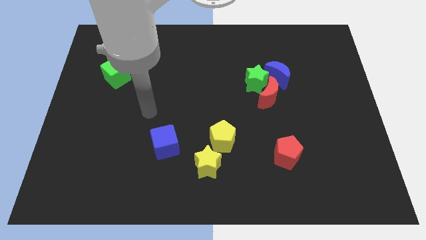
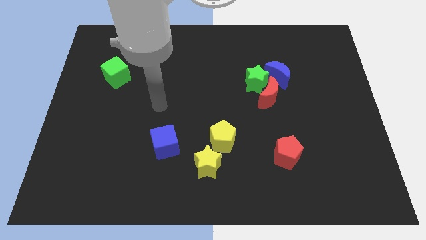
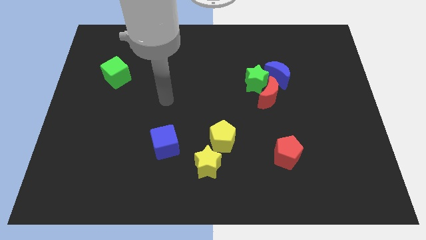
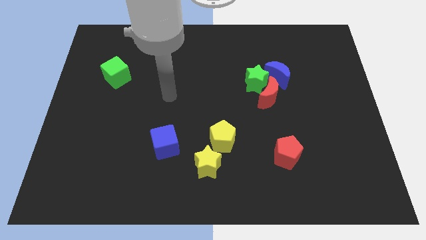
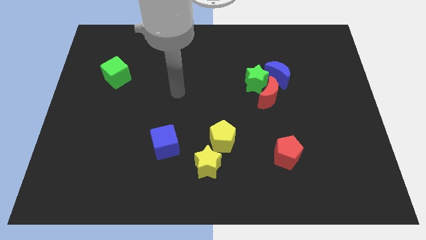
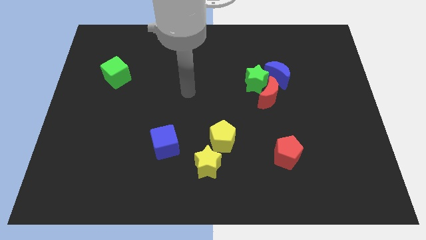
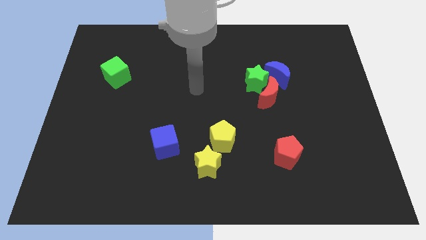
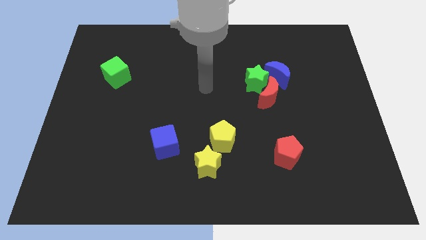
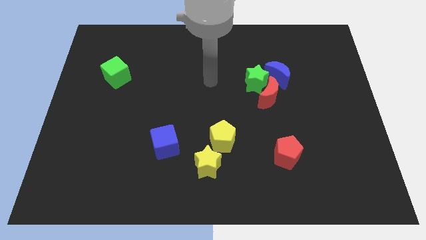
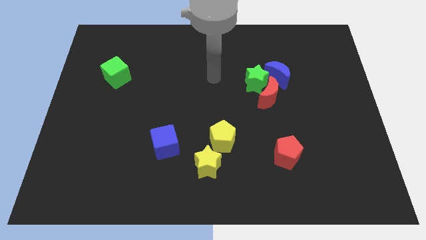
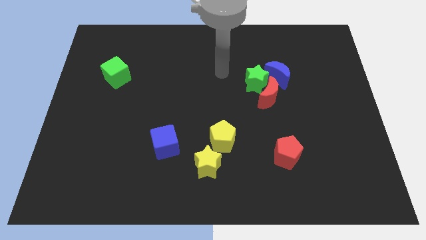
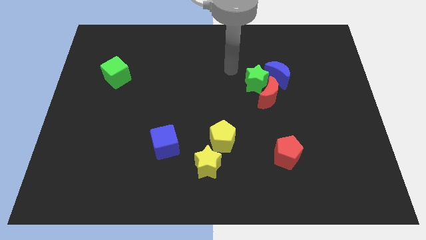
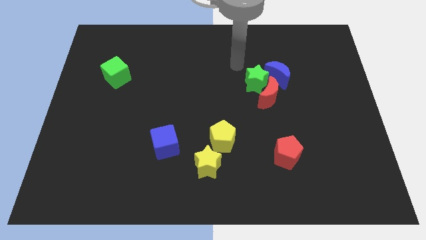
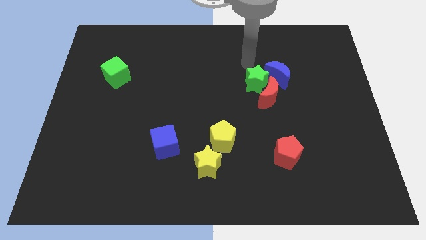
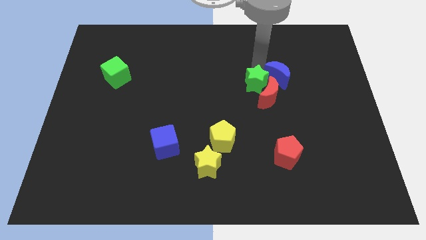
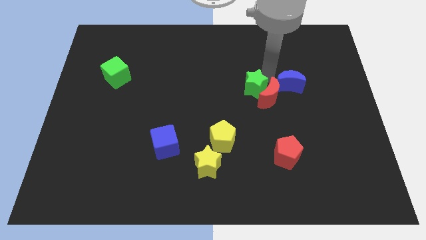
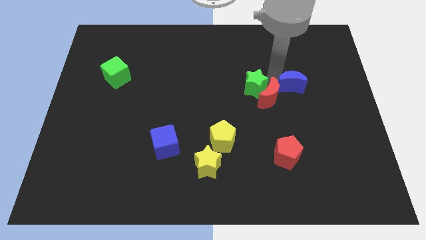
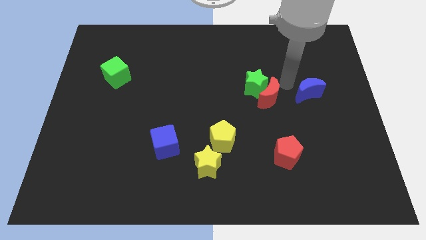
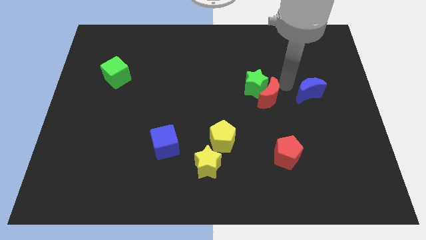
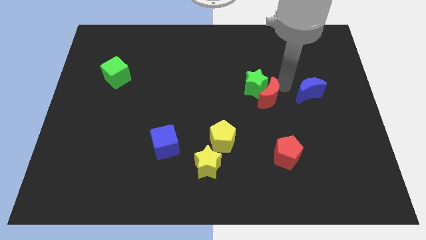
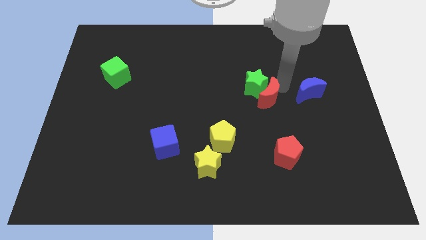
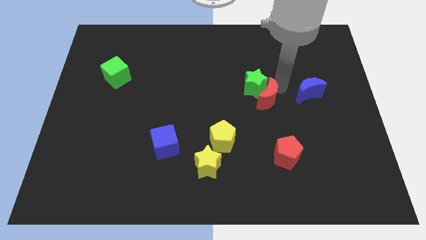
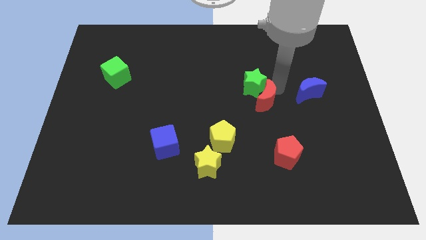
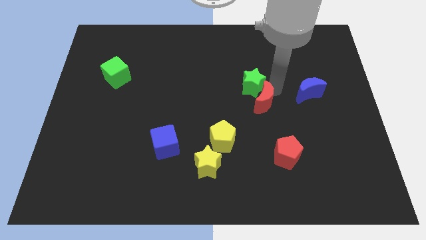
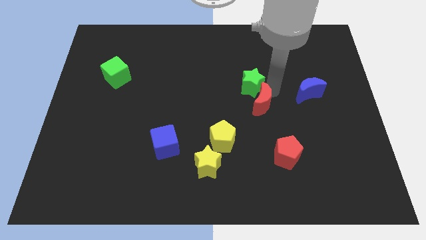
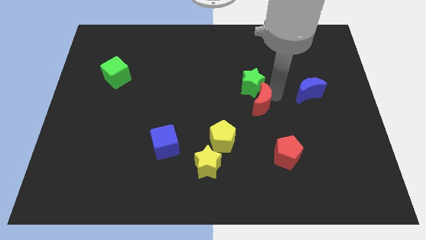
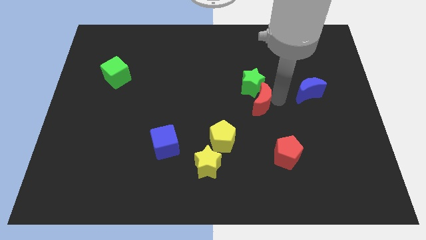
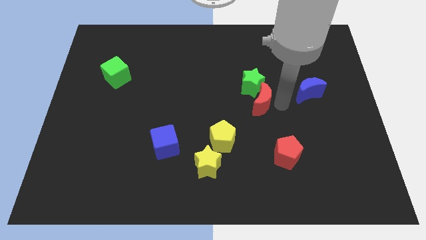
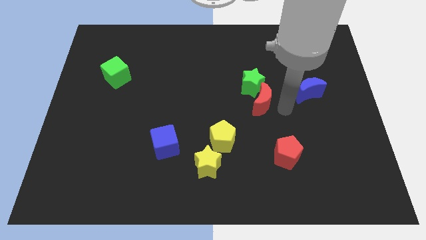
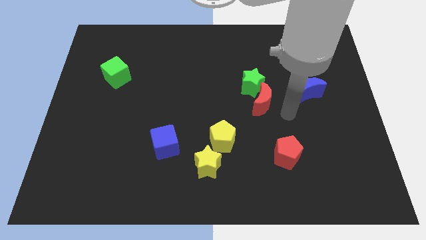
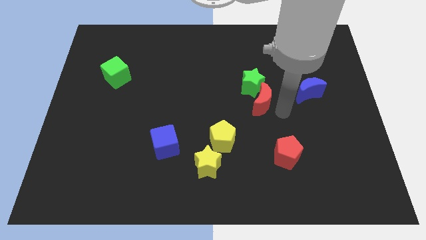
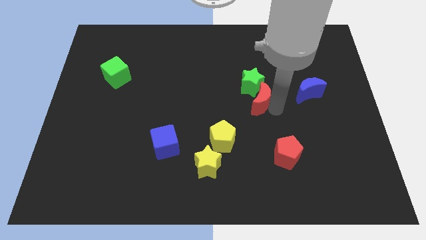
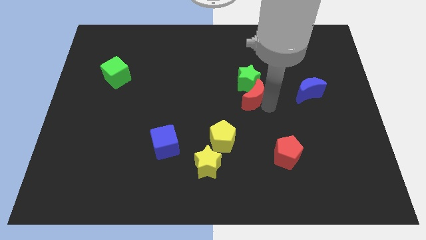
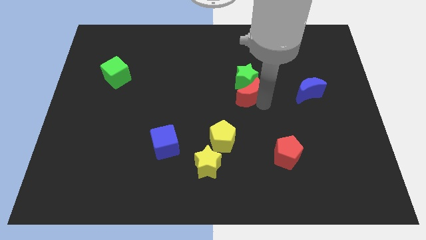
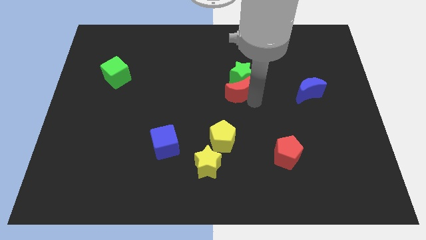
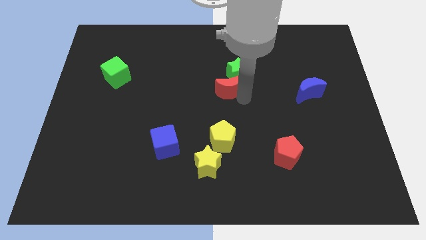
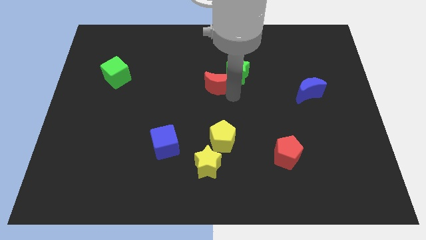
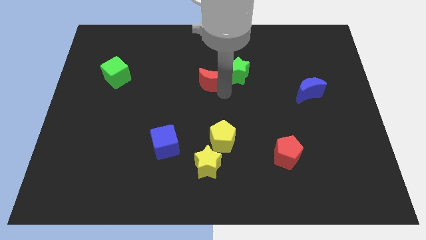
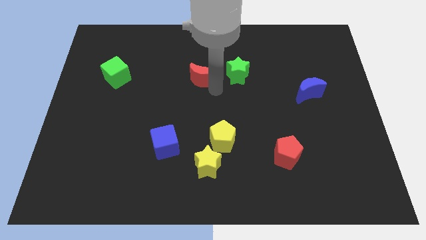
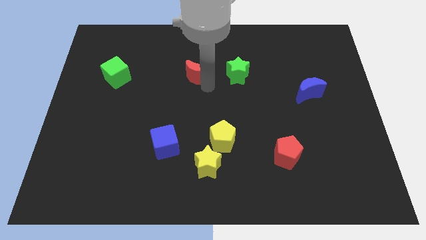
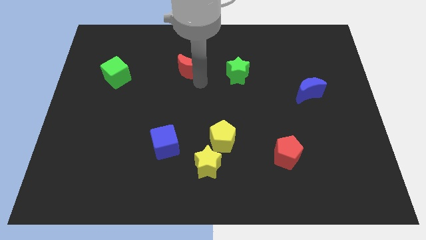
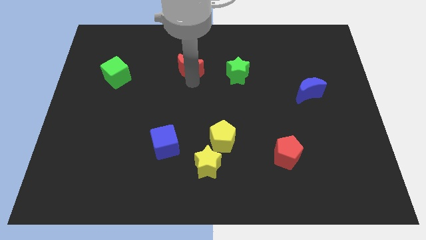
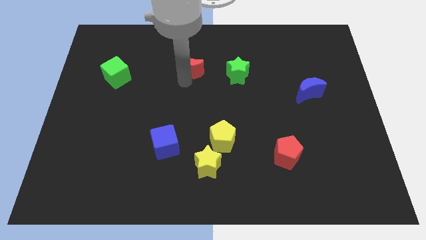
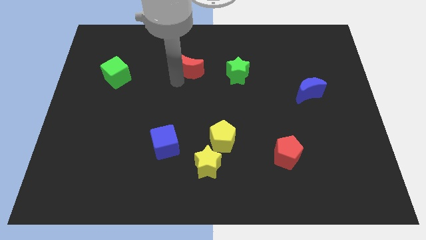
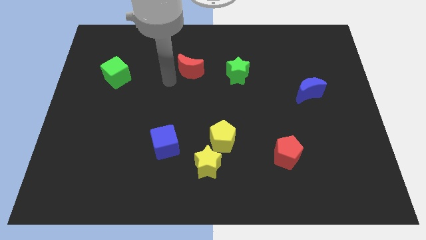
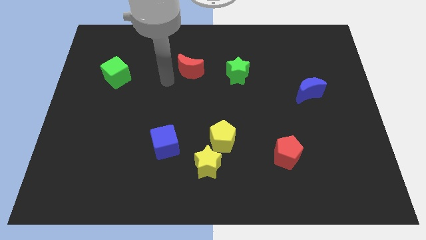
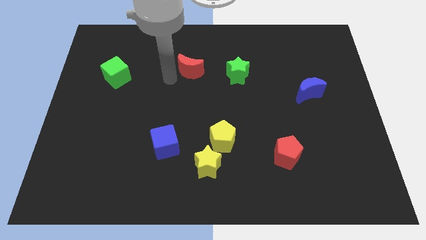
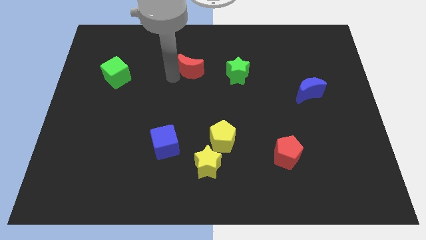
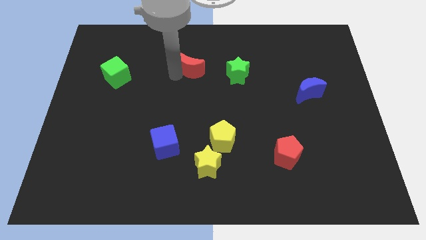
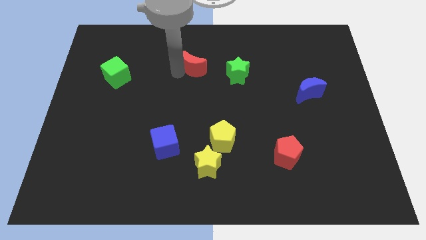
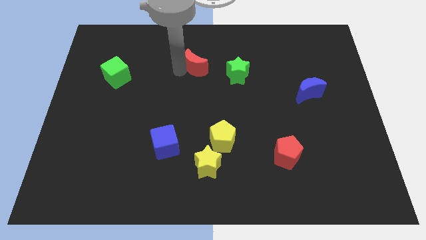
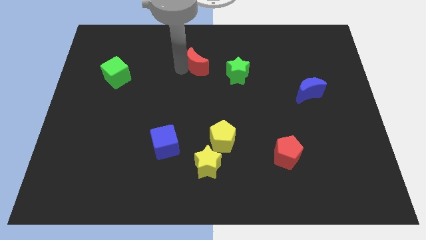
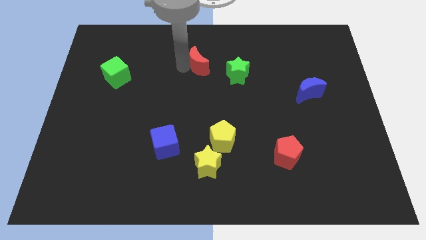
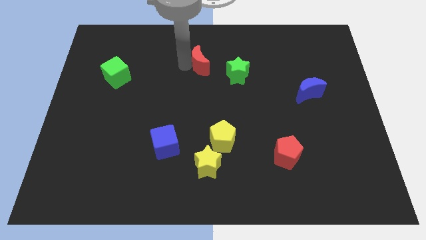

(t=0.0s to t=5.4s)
move the red moon to the top left side of the green star

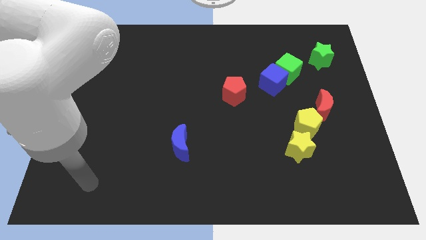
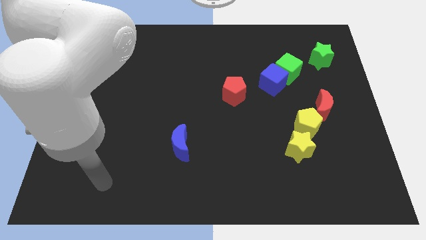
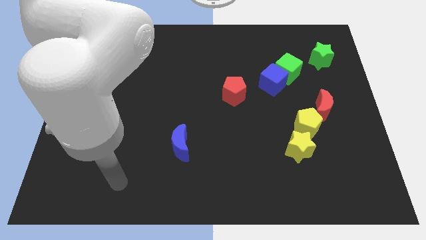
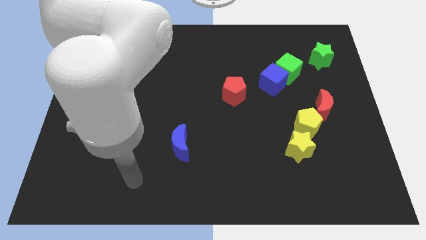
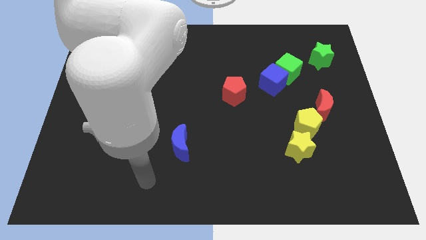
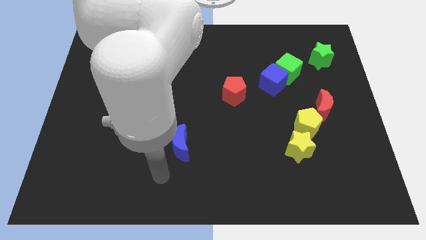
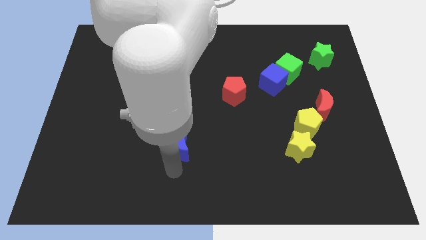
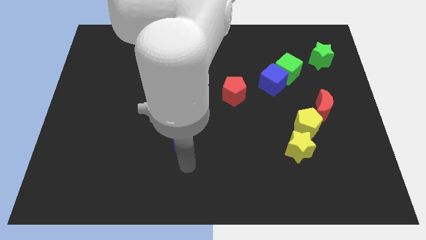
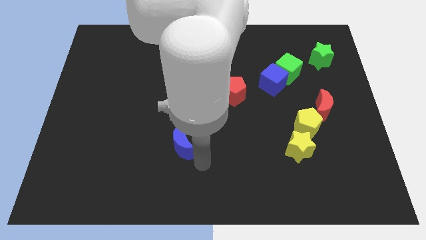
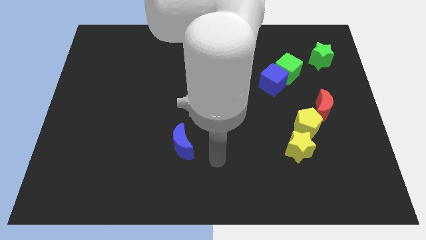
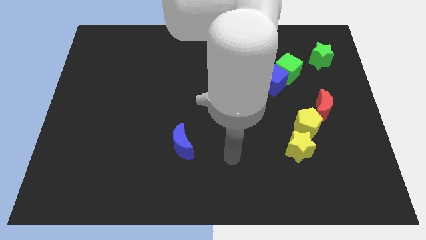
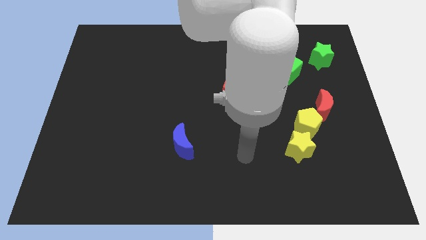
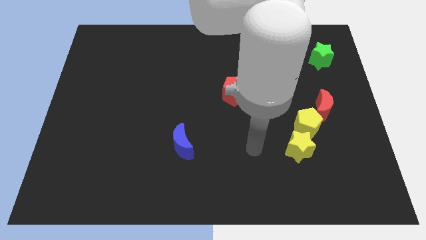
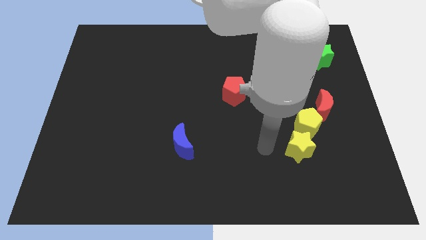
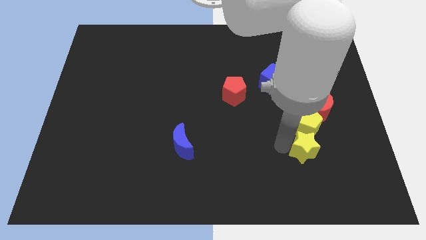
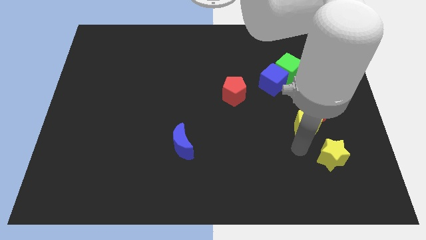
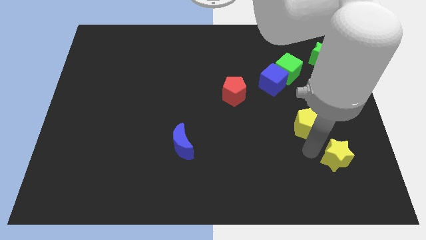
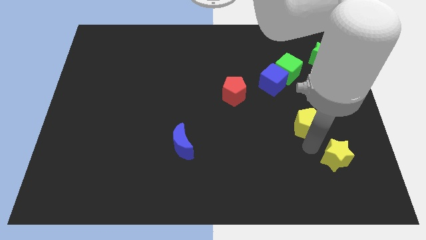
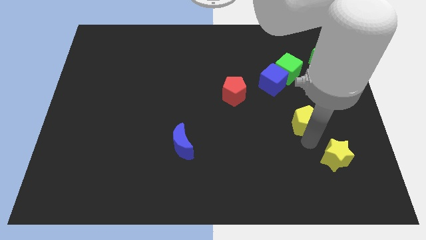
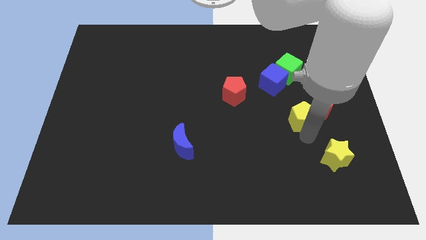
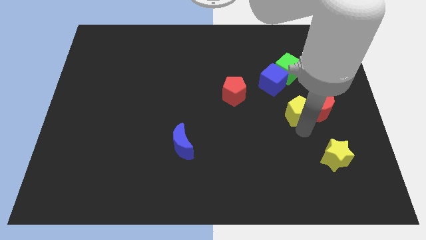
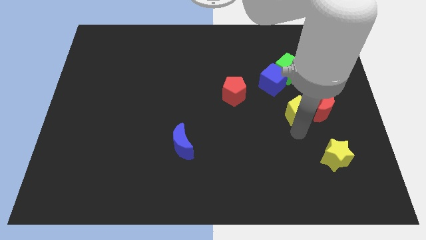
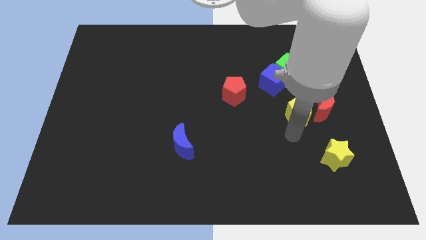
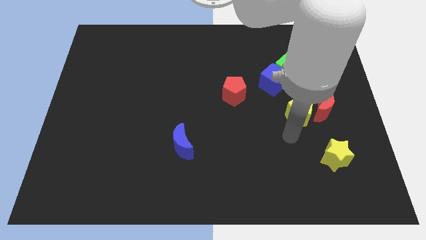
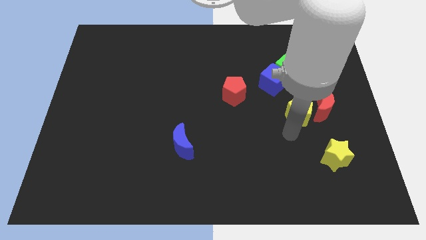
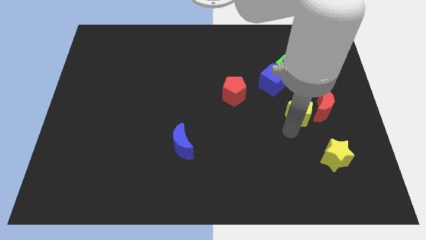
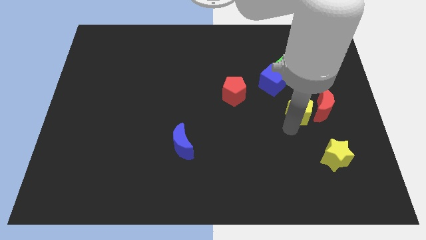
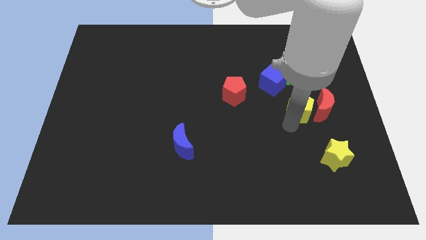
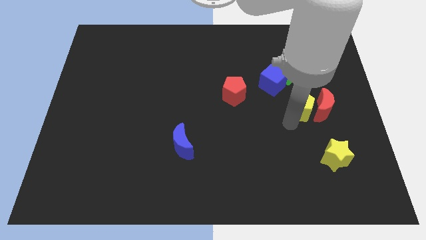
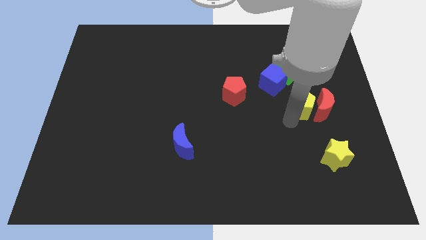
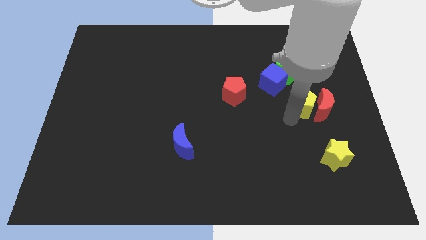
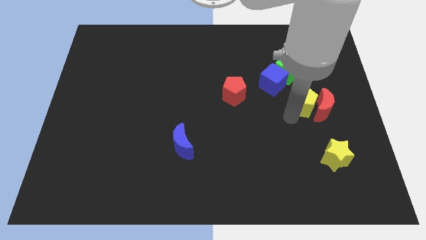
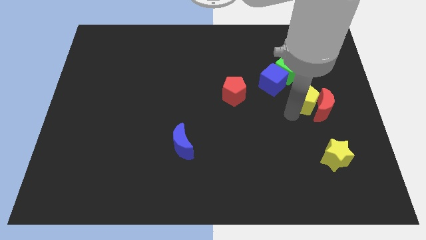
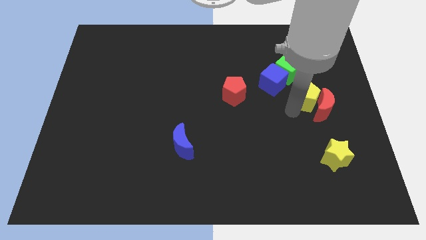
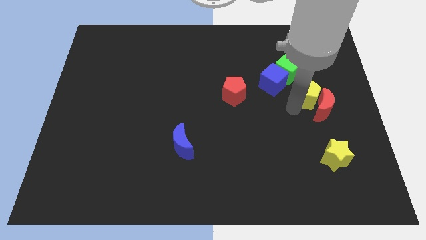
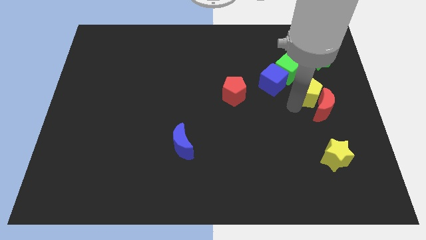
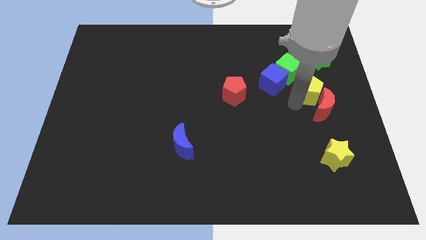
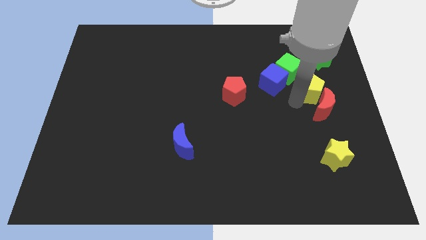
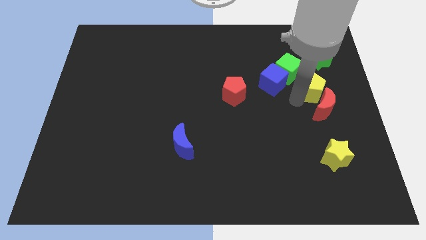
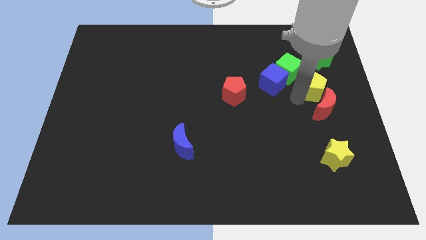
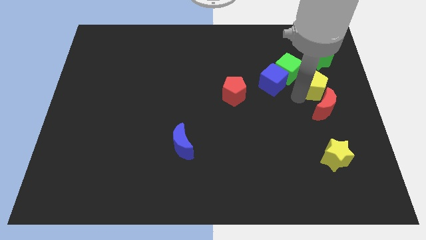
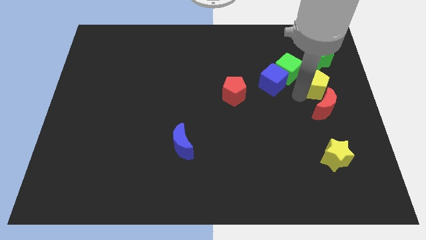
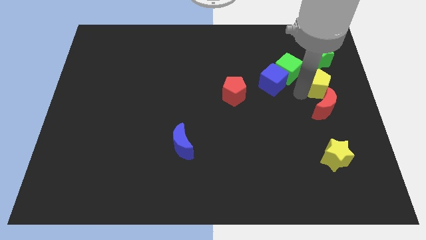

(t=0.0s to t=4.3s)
push the yellow pentagon to the right side of the green cube
